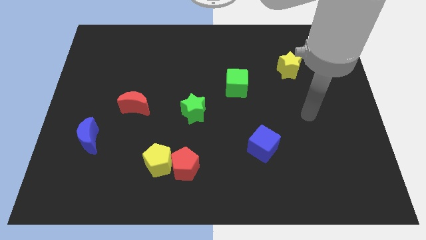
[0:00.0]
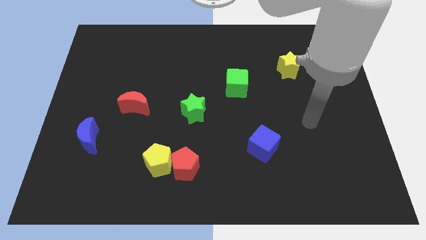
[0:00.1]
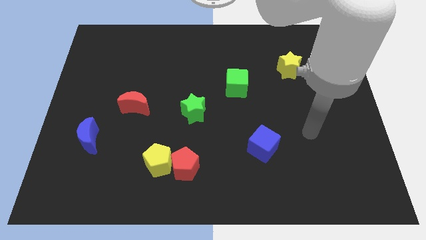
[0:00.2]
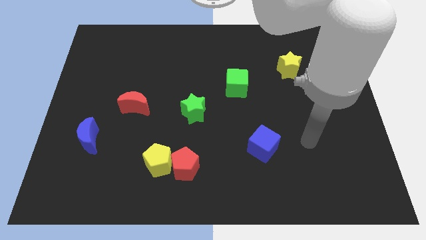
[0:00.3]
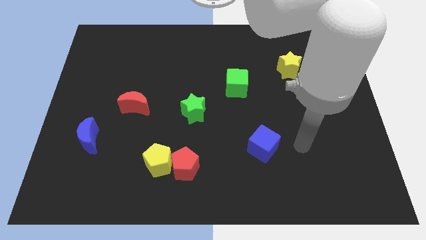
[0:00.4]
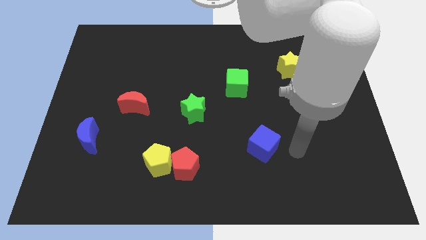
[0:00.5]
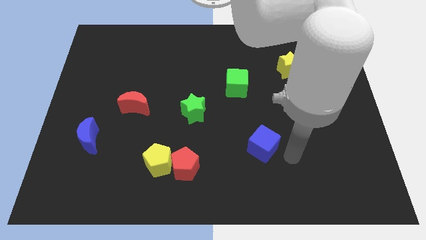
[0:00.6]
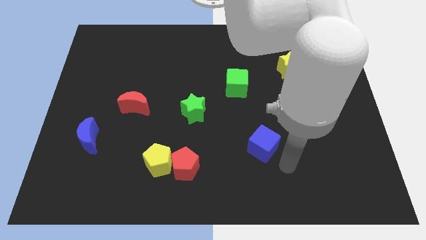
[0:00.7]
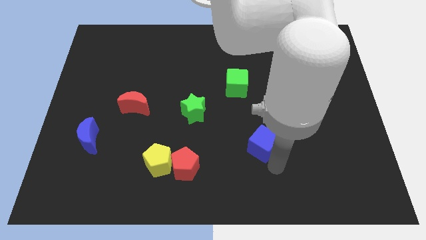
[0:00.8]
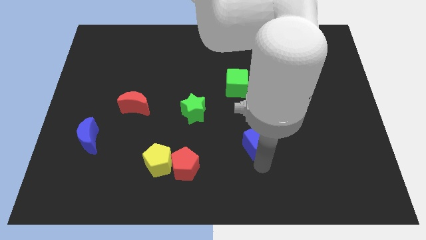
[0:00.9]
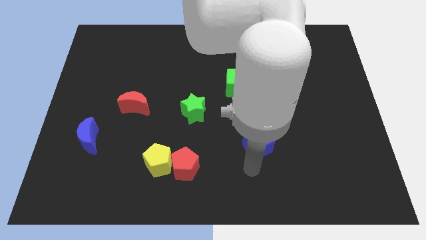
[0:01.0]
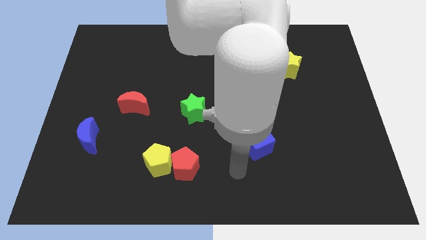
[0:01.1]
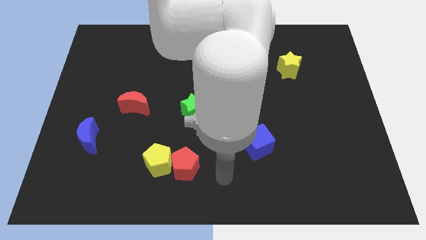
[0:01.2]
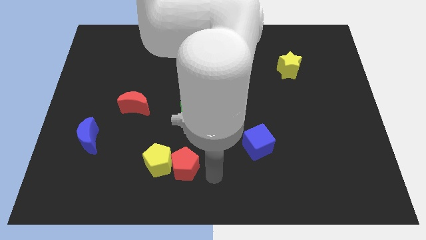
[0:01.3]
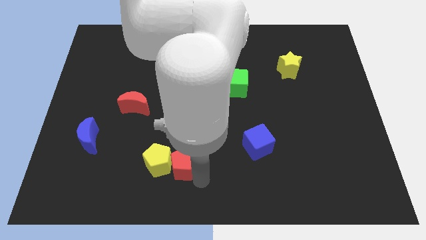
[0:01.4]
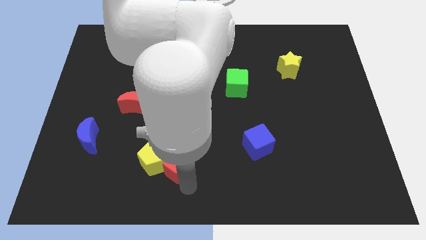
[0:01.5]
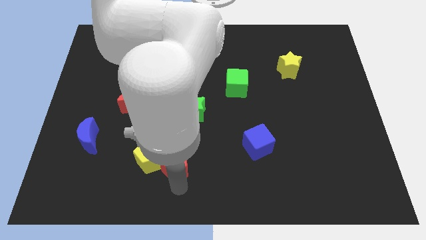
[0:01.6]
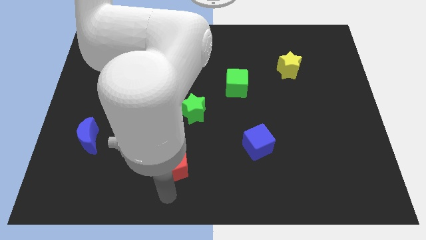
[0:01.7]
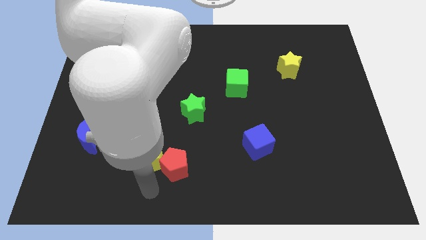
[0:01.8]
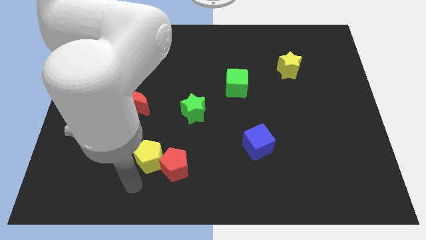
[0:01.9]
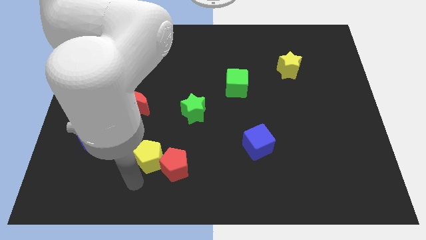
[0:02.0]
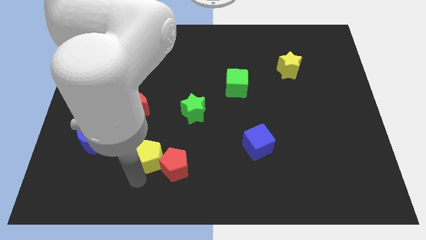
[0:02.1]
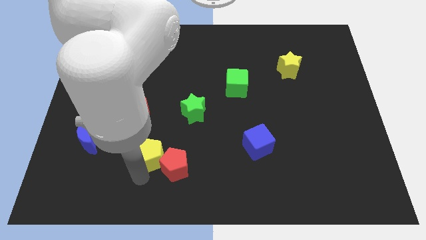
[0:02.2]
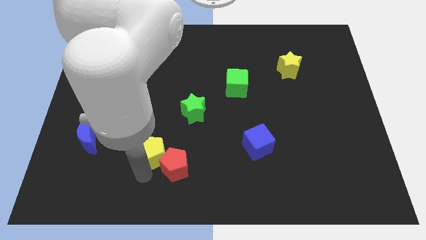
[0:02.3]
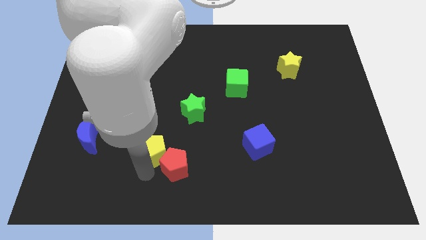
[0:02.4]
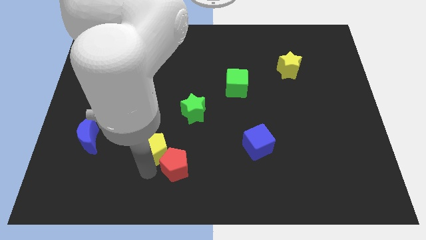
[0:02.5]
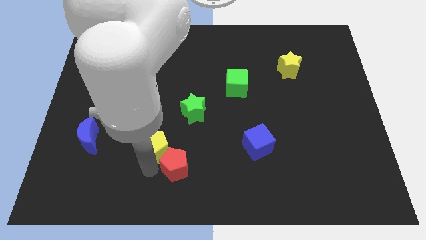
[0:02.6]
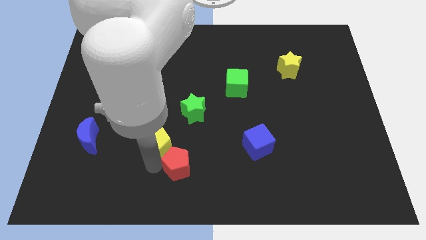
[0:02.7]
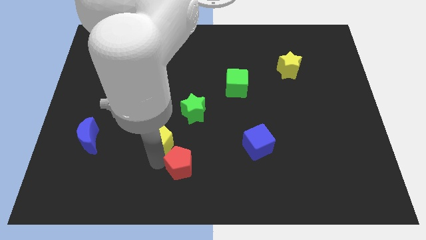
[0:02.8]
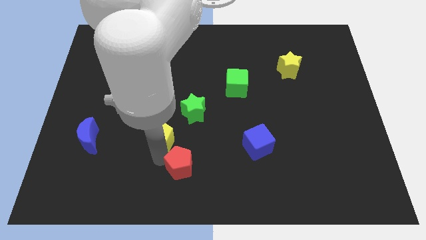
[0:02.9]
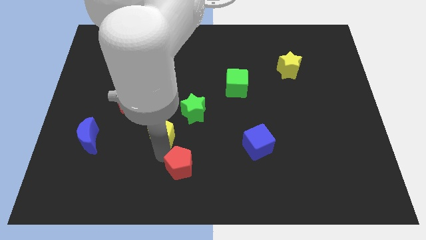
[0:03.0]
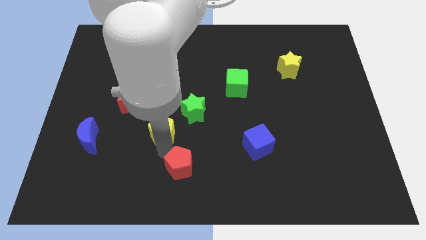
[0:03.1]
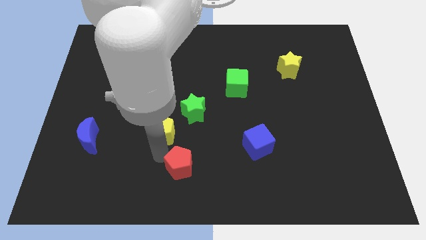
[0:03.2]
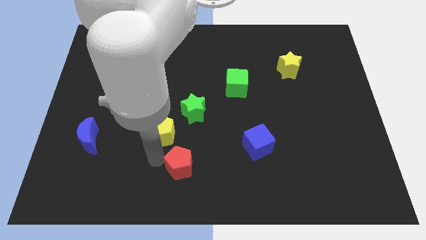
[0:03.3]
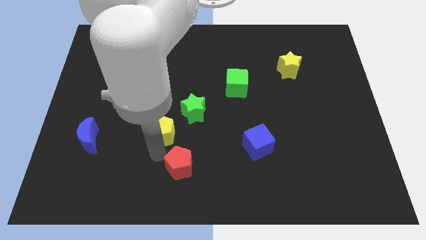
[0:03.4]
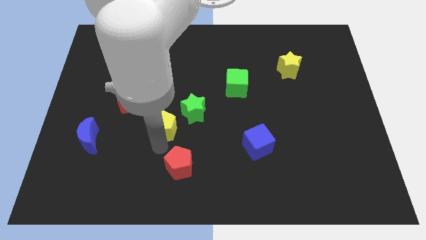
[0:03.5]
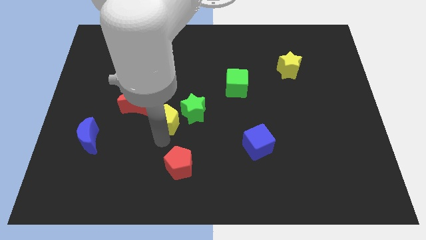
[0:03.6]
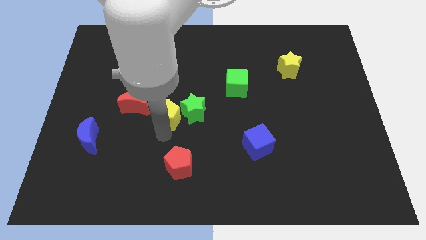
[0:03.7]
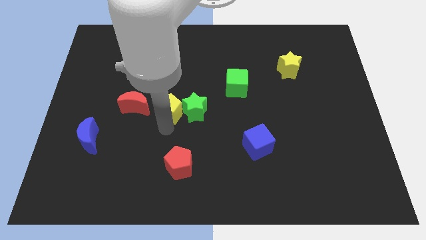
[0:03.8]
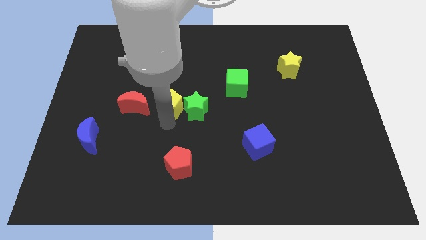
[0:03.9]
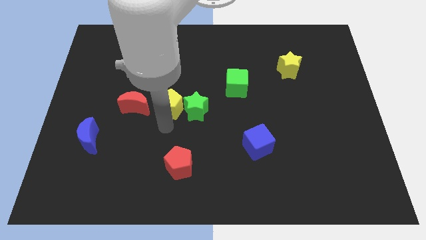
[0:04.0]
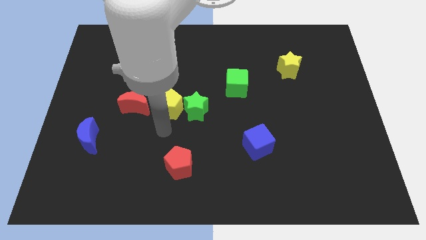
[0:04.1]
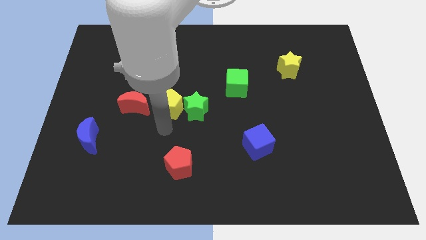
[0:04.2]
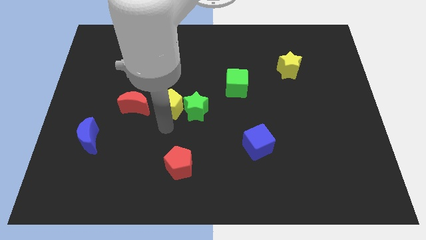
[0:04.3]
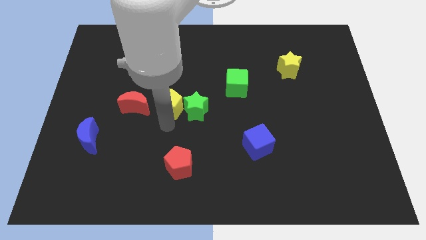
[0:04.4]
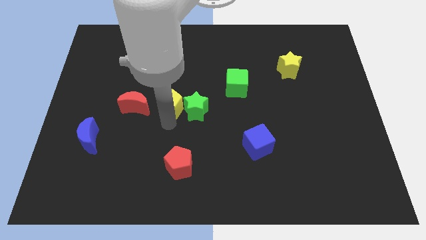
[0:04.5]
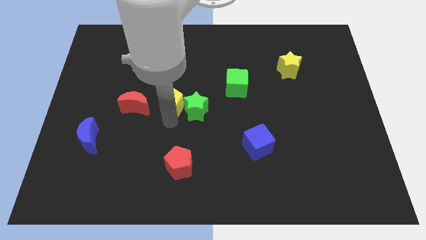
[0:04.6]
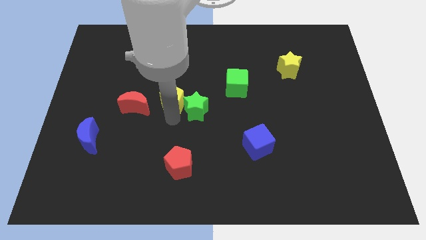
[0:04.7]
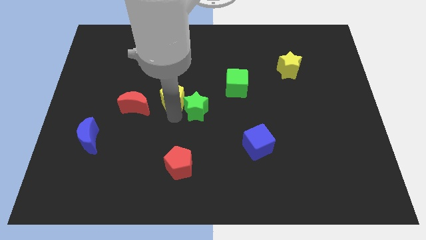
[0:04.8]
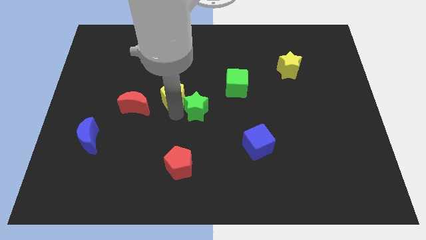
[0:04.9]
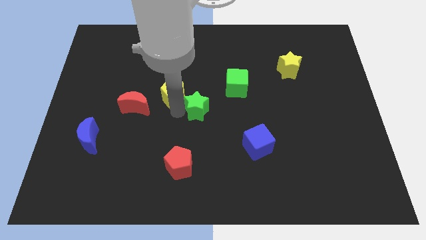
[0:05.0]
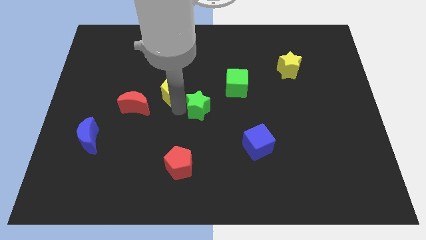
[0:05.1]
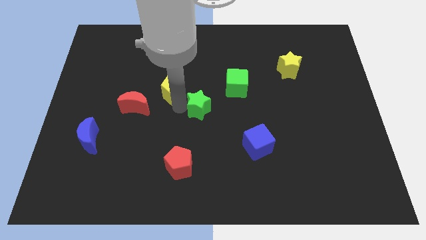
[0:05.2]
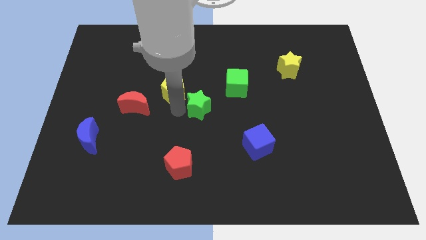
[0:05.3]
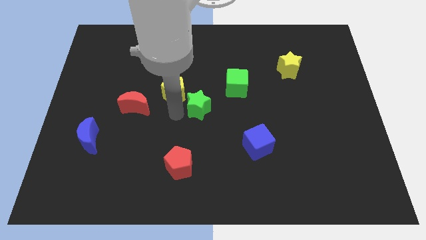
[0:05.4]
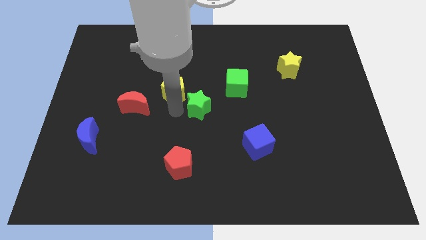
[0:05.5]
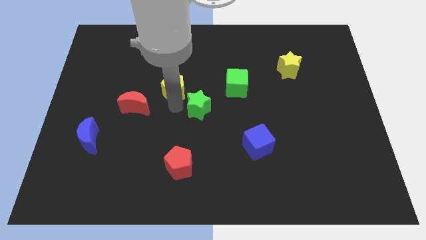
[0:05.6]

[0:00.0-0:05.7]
slide the yellow pentagon up

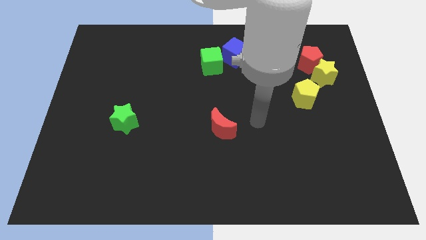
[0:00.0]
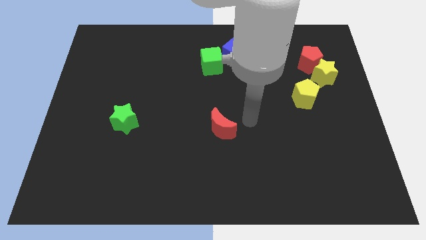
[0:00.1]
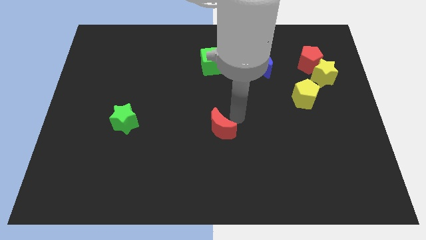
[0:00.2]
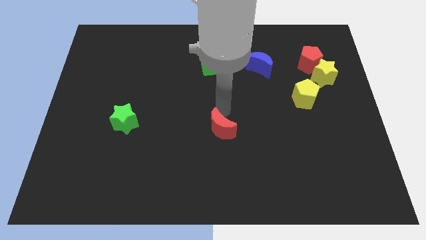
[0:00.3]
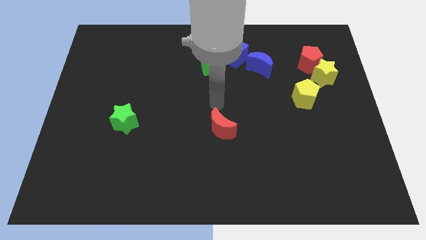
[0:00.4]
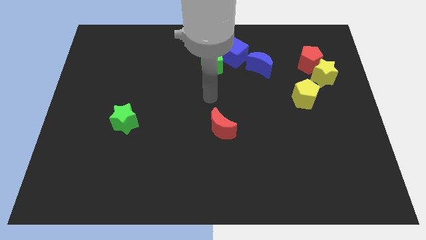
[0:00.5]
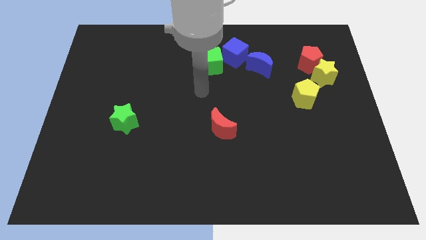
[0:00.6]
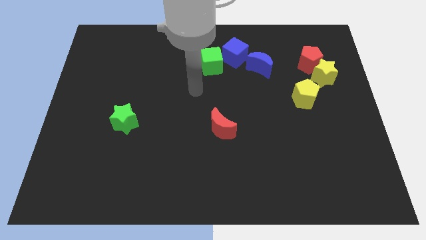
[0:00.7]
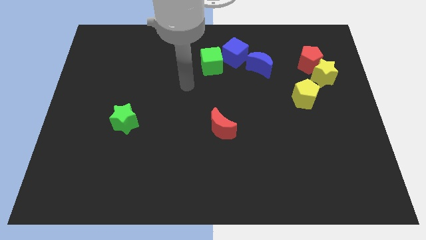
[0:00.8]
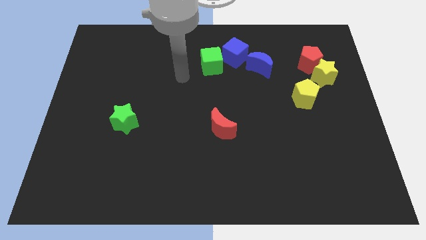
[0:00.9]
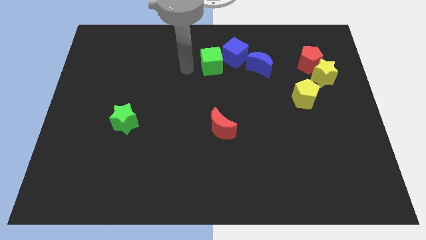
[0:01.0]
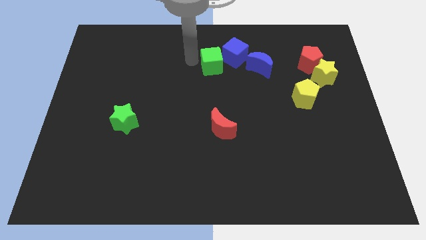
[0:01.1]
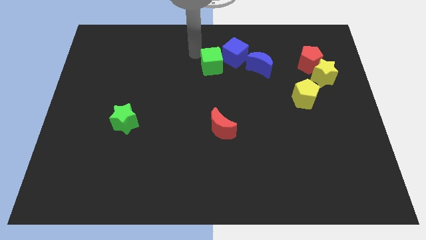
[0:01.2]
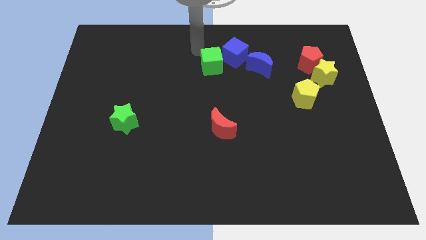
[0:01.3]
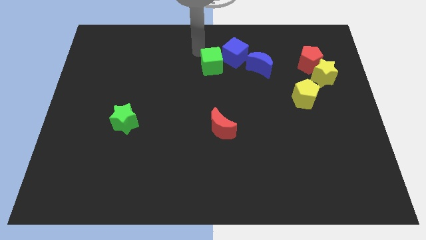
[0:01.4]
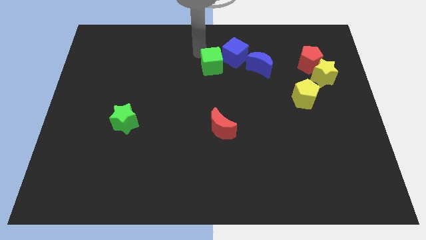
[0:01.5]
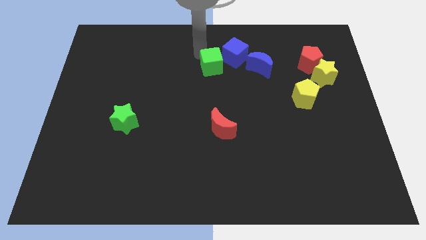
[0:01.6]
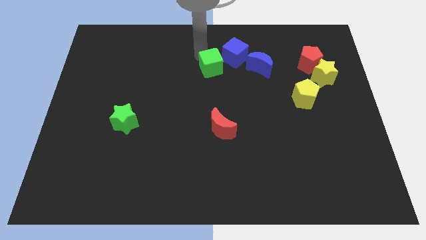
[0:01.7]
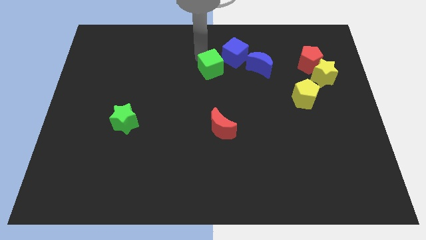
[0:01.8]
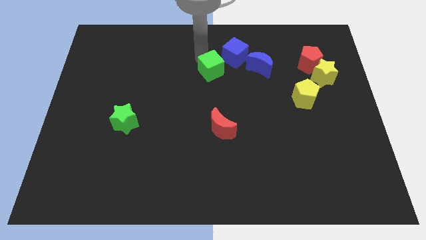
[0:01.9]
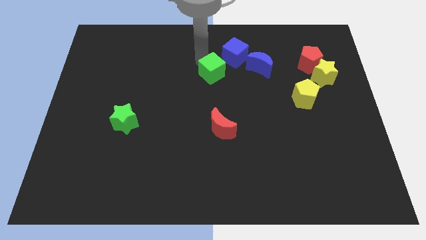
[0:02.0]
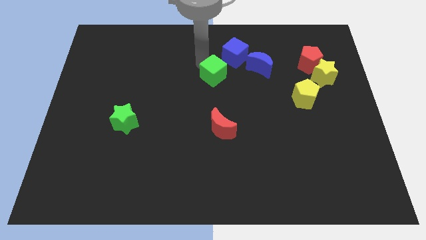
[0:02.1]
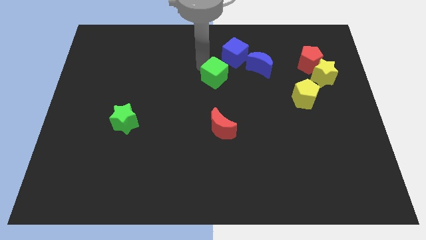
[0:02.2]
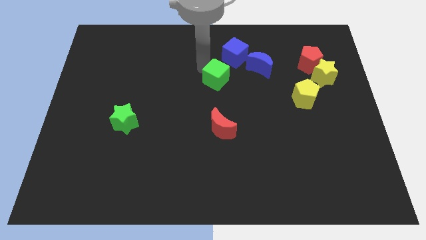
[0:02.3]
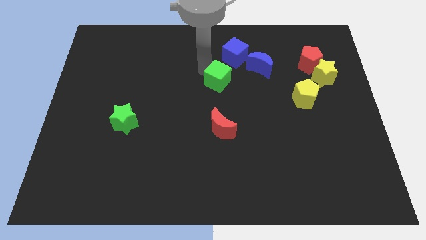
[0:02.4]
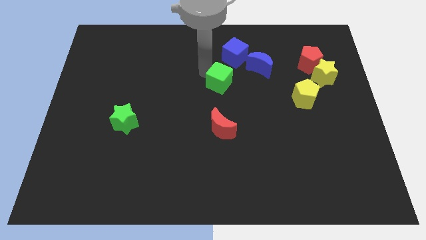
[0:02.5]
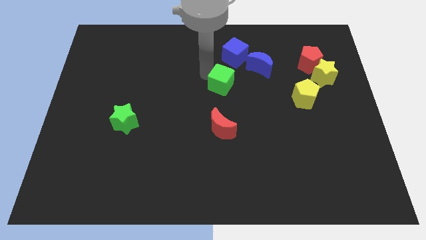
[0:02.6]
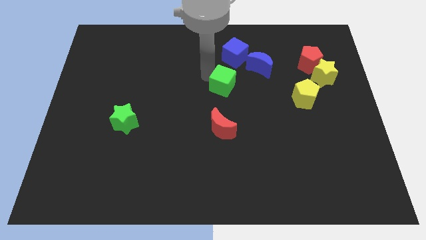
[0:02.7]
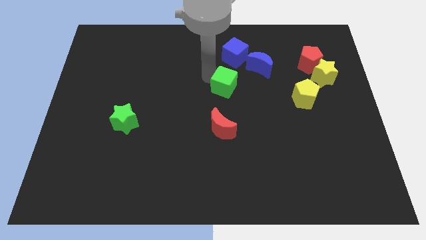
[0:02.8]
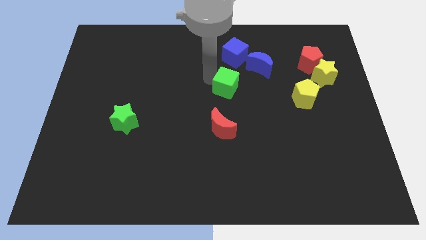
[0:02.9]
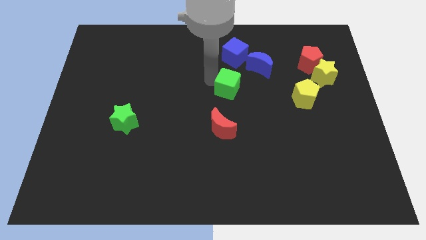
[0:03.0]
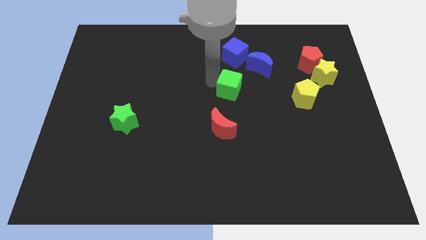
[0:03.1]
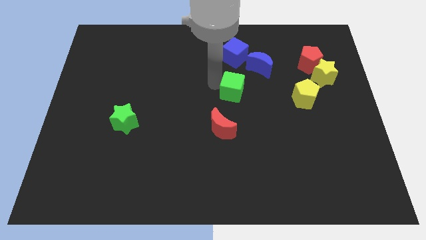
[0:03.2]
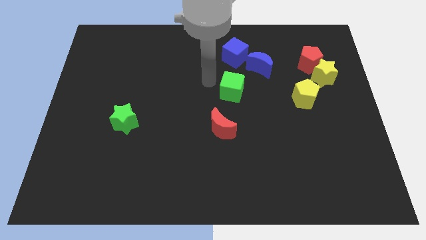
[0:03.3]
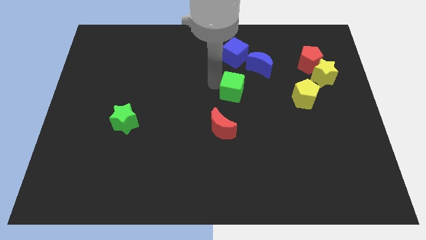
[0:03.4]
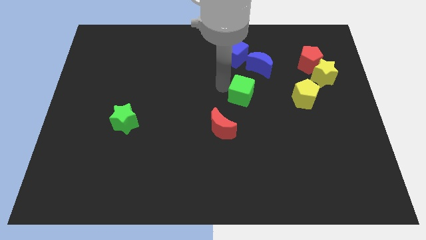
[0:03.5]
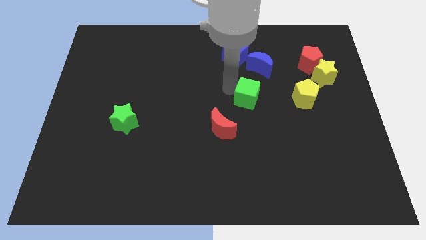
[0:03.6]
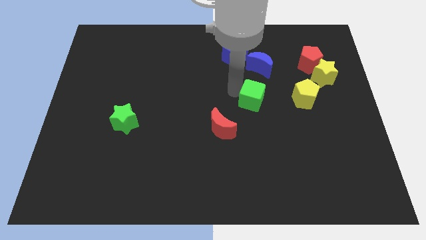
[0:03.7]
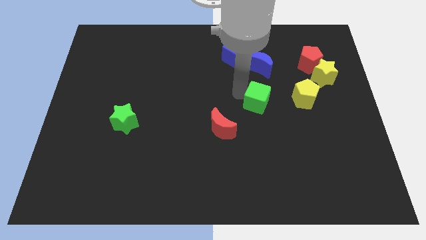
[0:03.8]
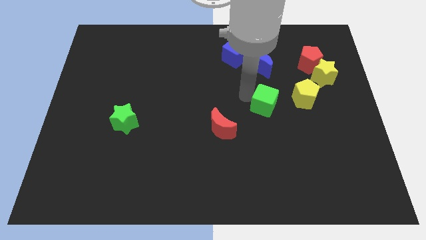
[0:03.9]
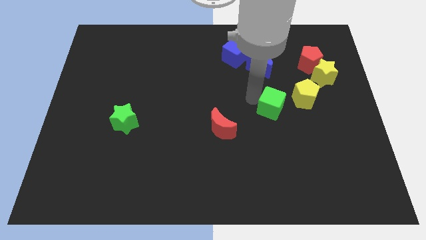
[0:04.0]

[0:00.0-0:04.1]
slide the green cube downwards and right diagonally
